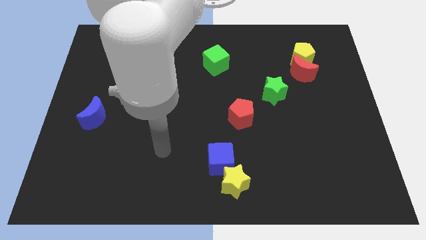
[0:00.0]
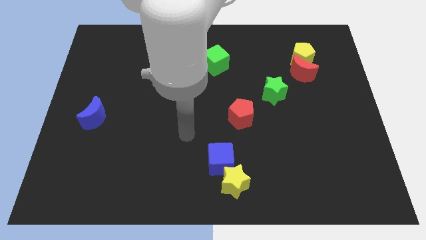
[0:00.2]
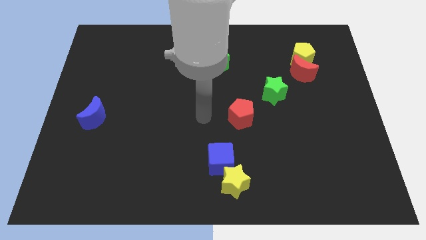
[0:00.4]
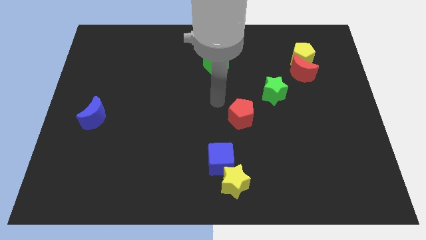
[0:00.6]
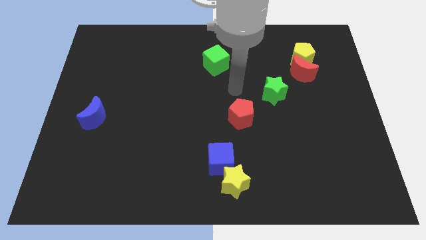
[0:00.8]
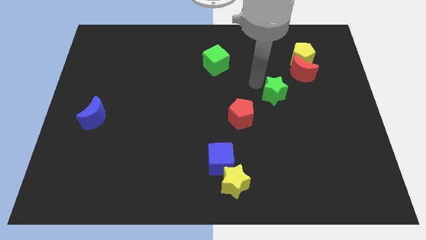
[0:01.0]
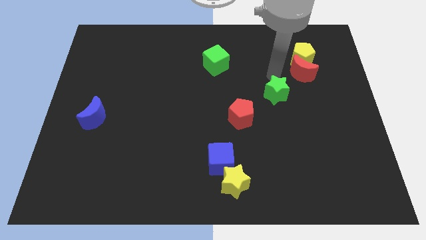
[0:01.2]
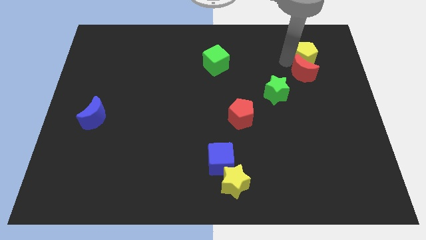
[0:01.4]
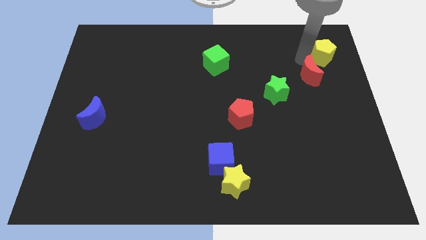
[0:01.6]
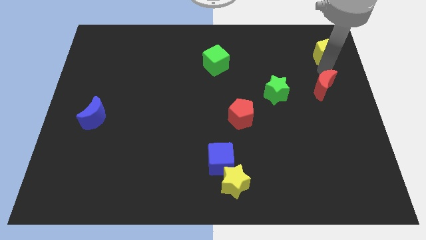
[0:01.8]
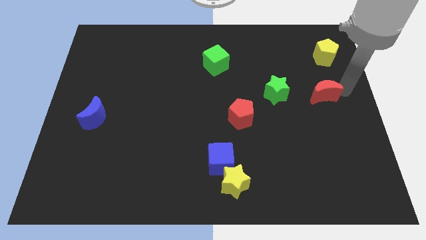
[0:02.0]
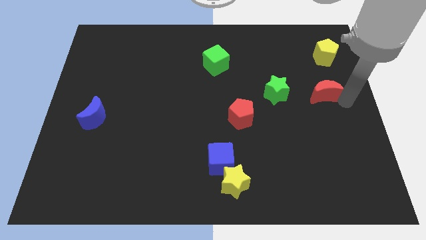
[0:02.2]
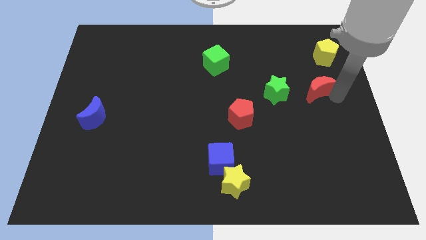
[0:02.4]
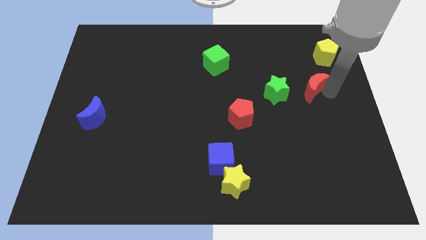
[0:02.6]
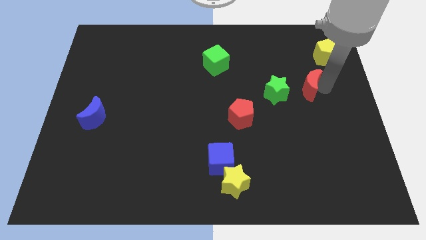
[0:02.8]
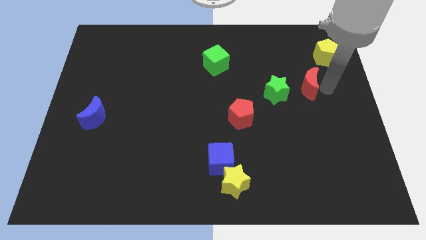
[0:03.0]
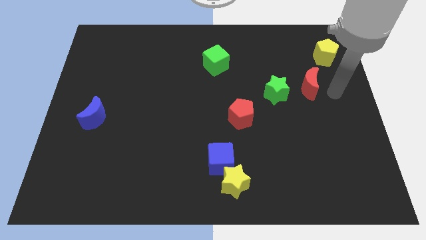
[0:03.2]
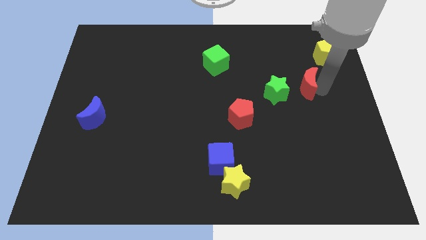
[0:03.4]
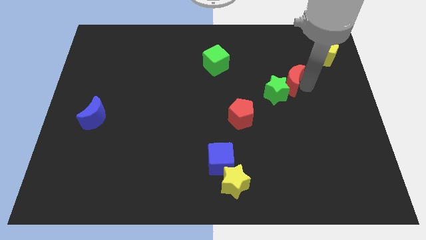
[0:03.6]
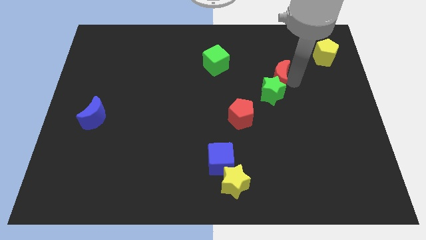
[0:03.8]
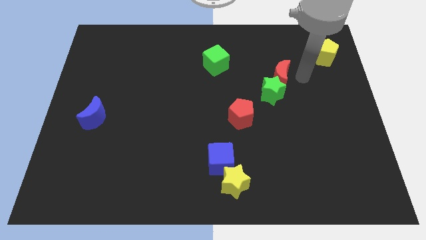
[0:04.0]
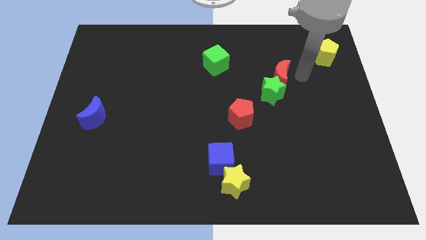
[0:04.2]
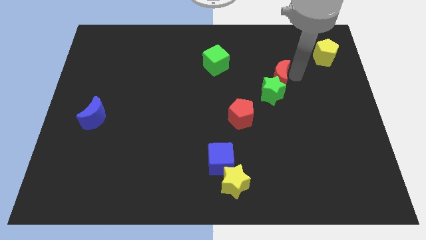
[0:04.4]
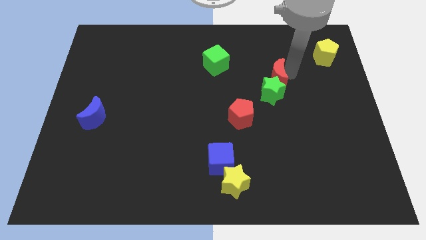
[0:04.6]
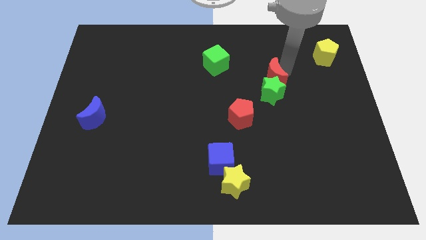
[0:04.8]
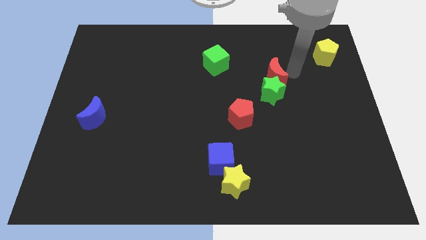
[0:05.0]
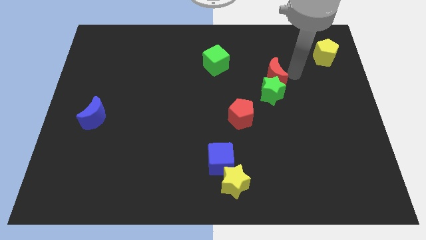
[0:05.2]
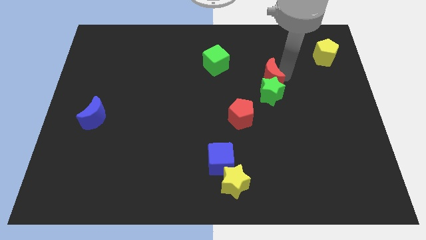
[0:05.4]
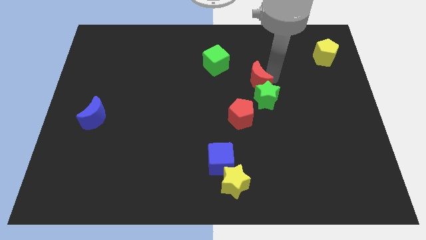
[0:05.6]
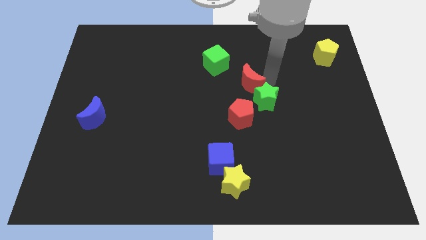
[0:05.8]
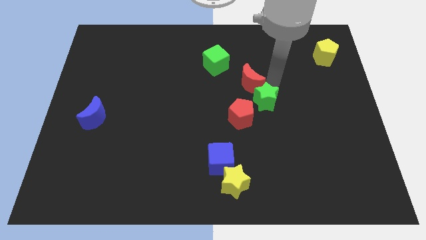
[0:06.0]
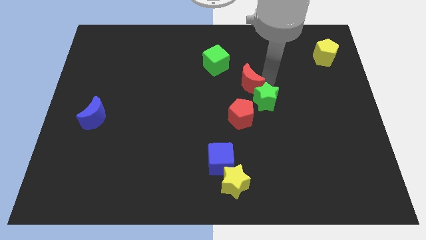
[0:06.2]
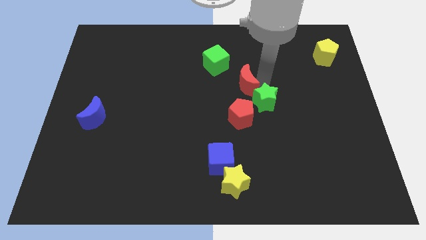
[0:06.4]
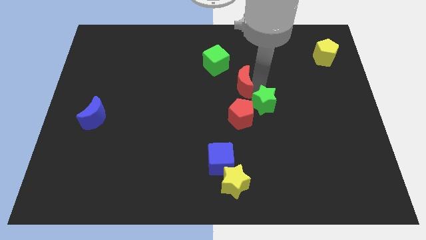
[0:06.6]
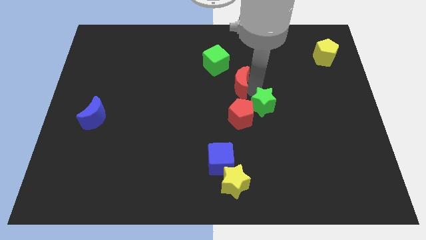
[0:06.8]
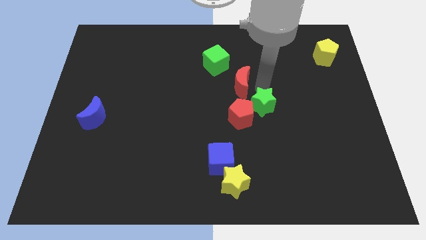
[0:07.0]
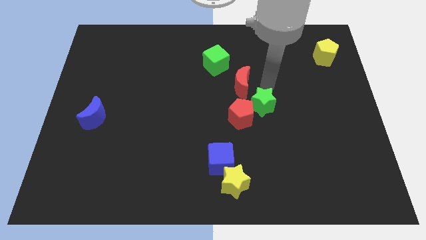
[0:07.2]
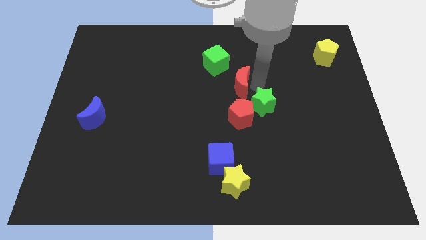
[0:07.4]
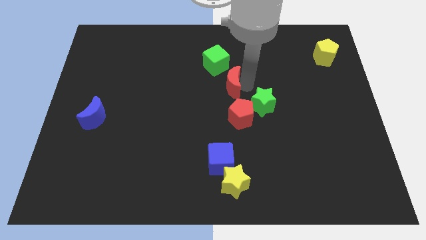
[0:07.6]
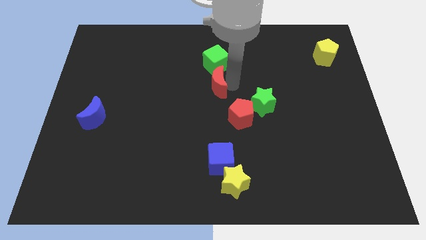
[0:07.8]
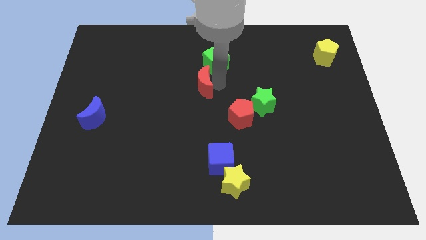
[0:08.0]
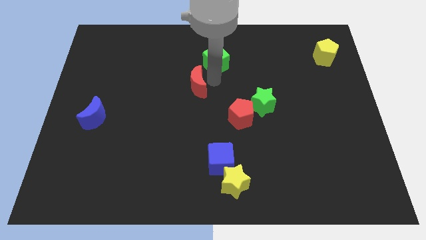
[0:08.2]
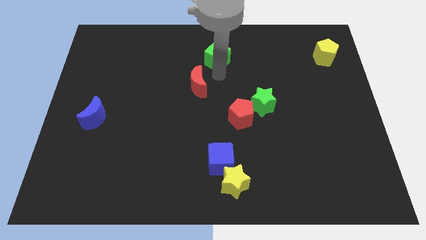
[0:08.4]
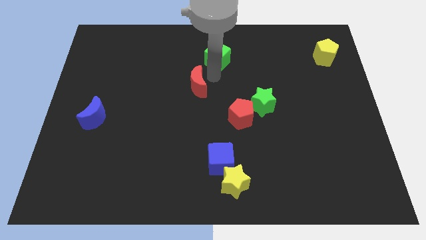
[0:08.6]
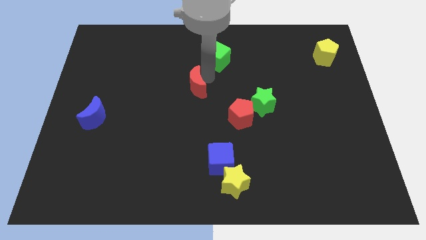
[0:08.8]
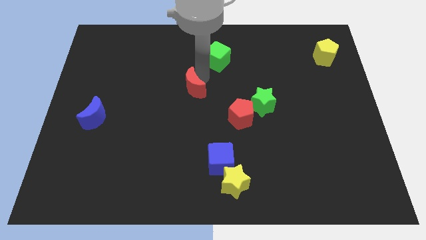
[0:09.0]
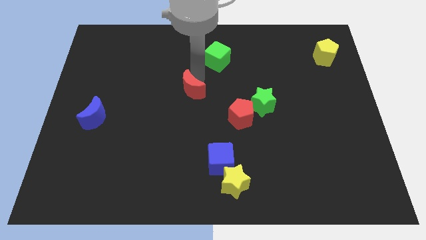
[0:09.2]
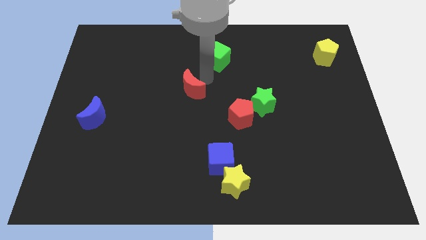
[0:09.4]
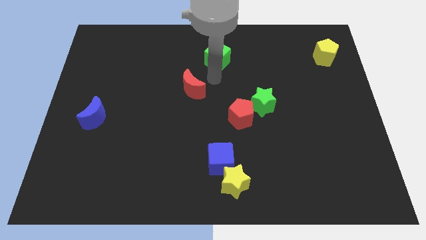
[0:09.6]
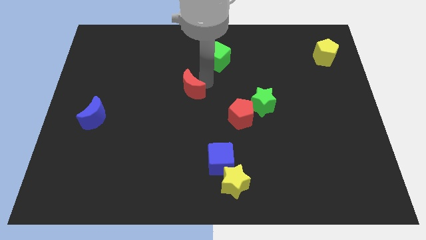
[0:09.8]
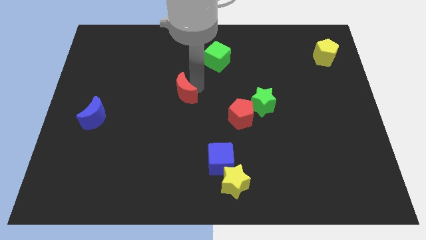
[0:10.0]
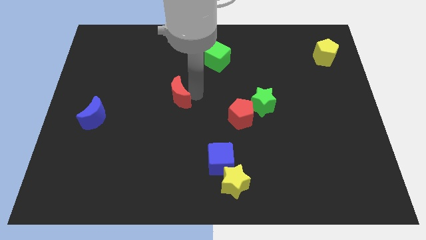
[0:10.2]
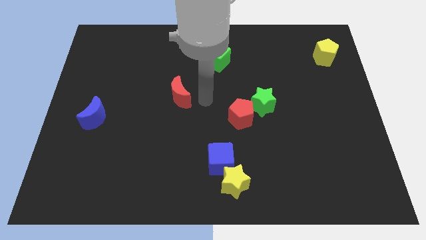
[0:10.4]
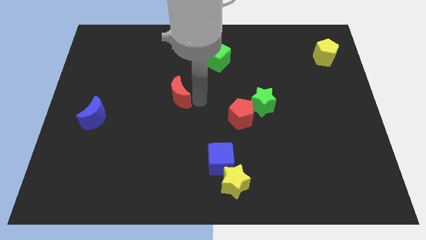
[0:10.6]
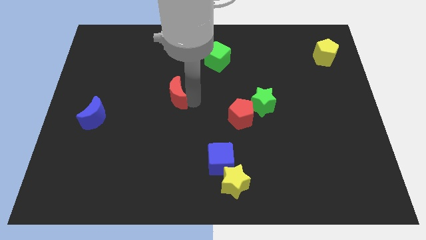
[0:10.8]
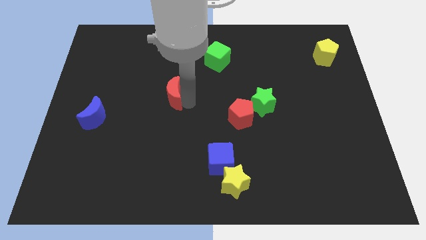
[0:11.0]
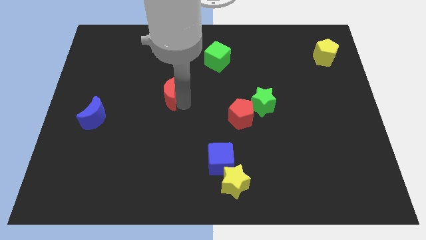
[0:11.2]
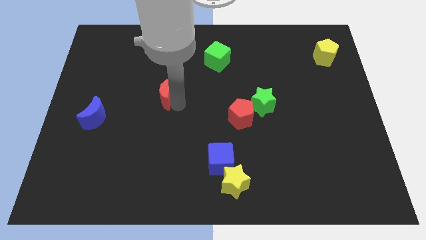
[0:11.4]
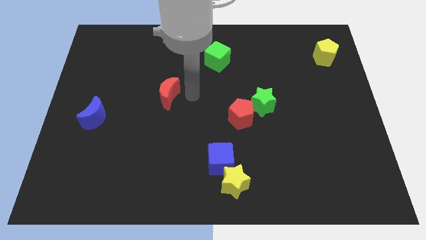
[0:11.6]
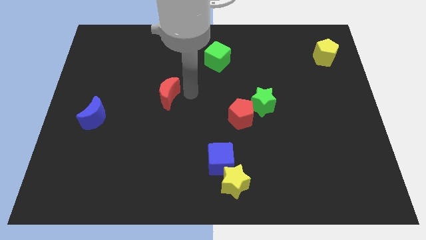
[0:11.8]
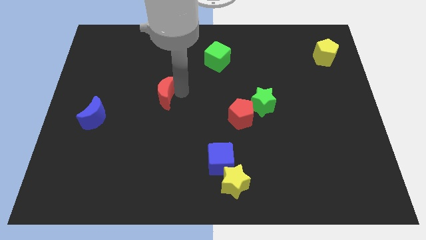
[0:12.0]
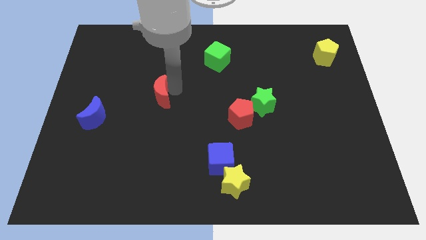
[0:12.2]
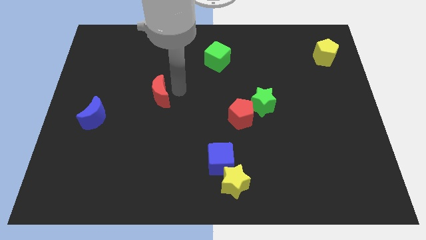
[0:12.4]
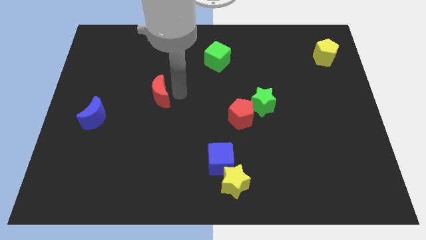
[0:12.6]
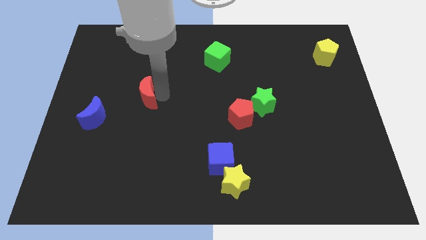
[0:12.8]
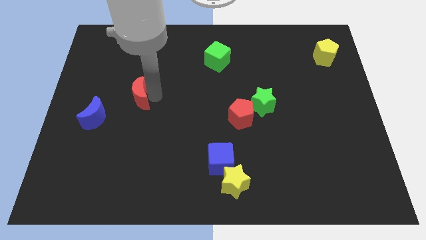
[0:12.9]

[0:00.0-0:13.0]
push the red moon to the top right side of the blue moon
